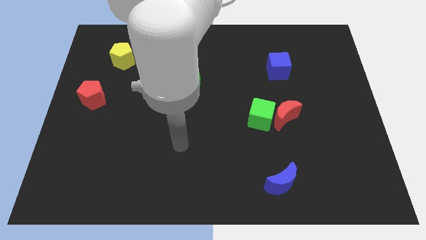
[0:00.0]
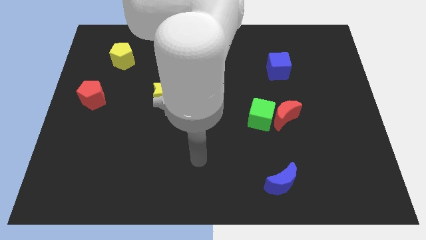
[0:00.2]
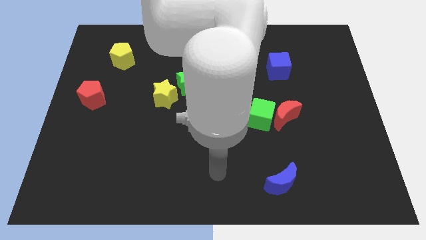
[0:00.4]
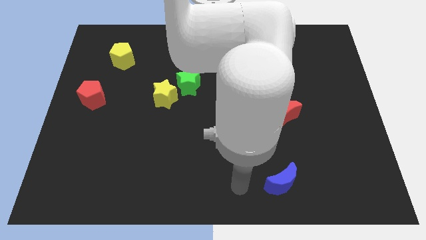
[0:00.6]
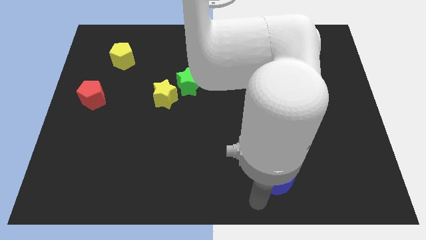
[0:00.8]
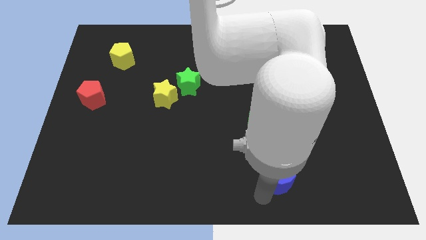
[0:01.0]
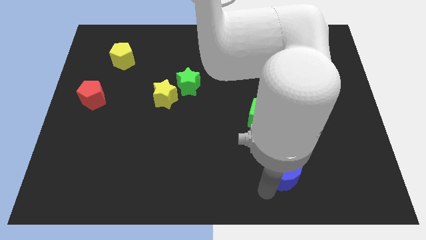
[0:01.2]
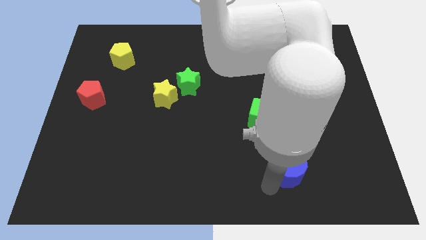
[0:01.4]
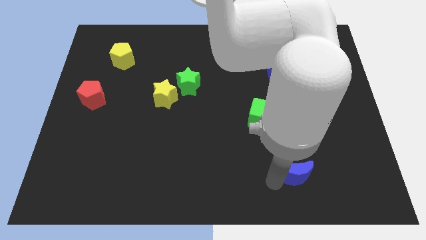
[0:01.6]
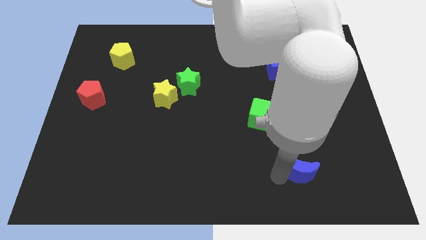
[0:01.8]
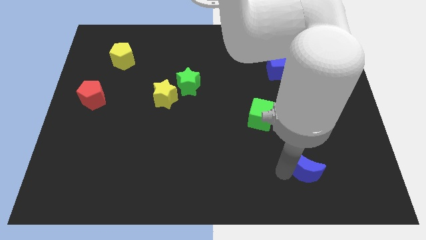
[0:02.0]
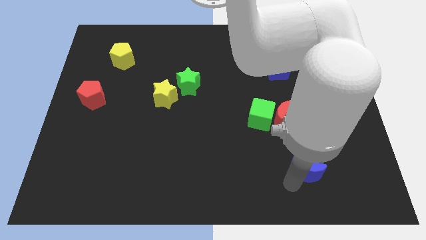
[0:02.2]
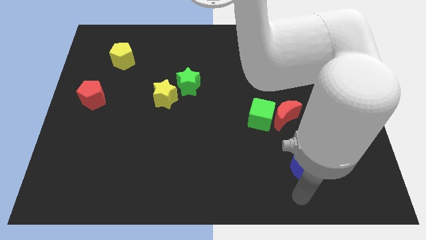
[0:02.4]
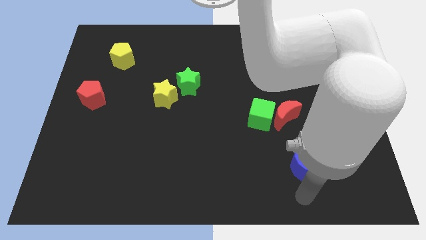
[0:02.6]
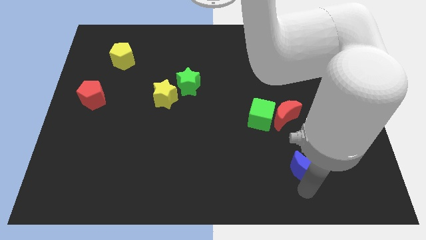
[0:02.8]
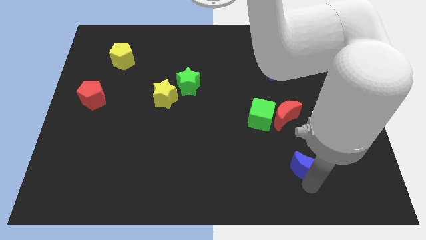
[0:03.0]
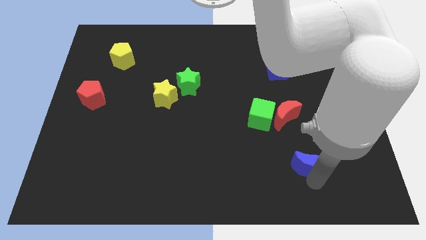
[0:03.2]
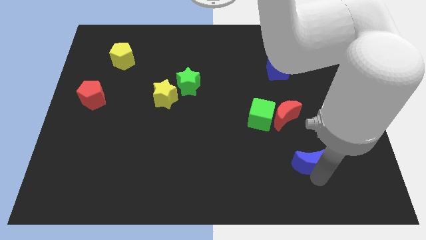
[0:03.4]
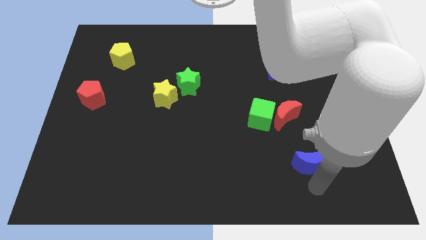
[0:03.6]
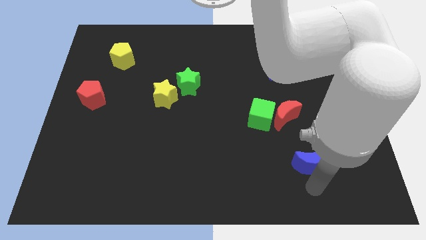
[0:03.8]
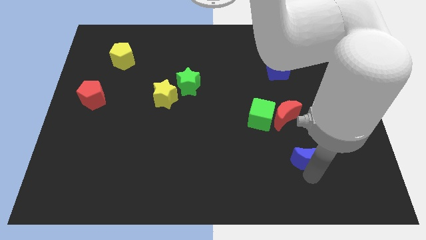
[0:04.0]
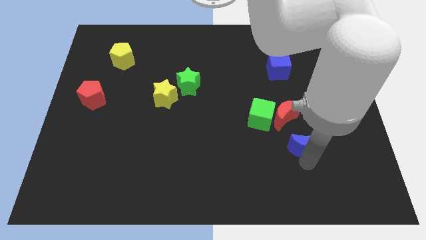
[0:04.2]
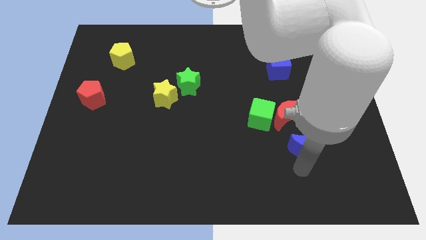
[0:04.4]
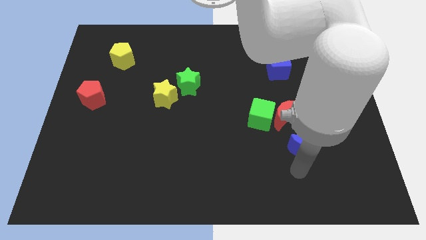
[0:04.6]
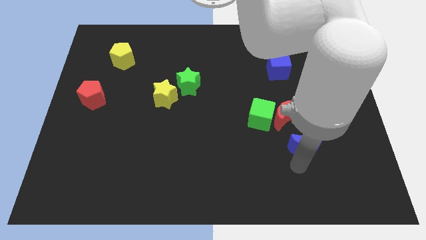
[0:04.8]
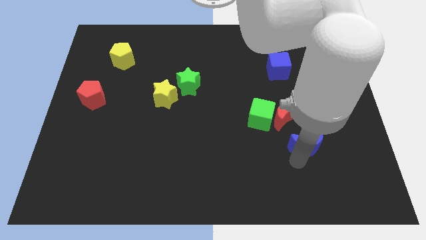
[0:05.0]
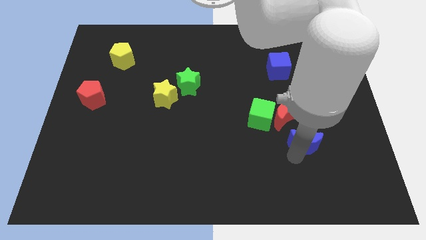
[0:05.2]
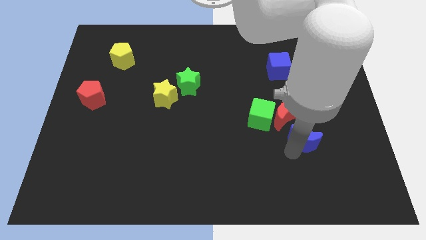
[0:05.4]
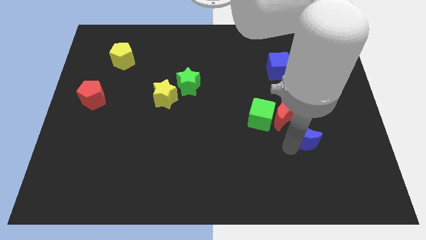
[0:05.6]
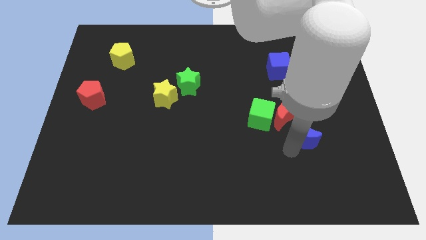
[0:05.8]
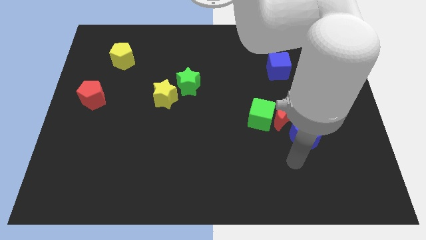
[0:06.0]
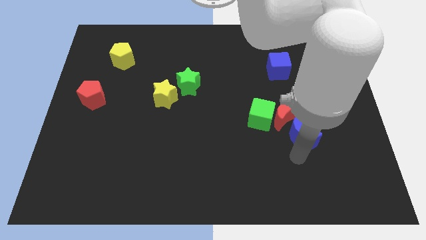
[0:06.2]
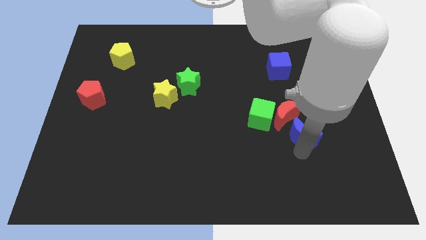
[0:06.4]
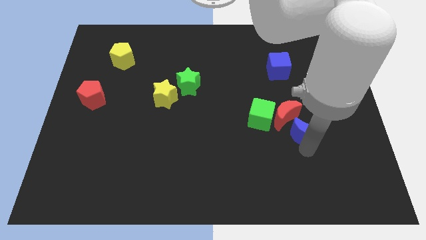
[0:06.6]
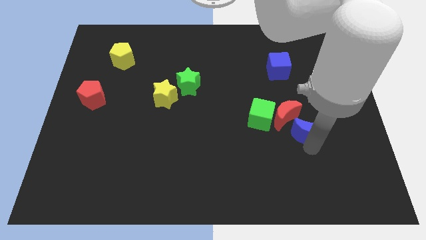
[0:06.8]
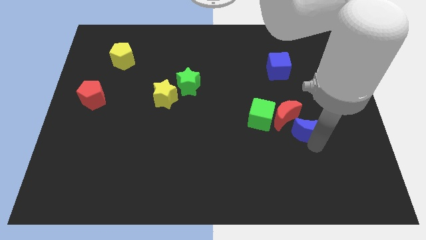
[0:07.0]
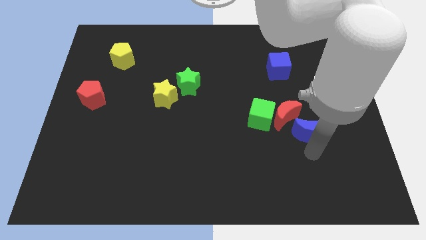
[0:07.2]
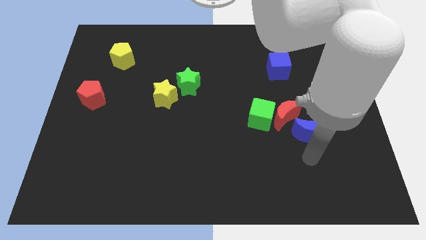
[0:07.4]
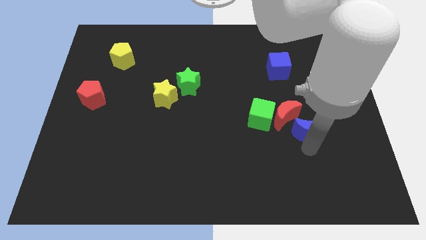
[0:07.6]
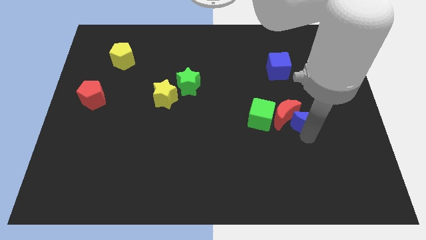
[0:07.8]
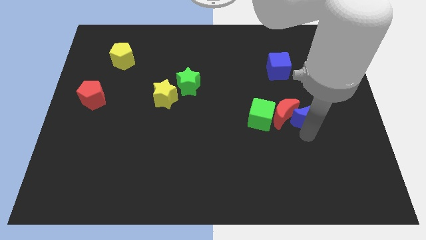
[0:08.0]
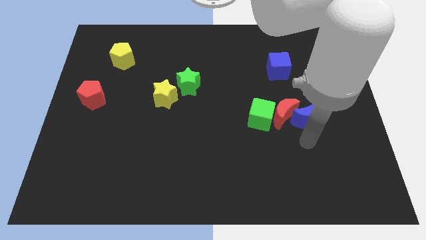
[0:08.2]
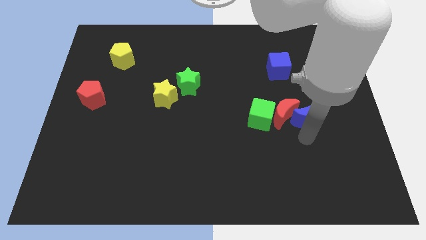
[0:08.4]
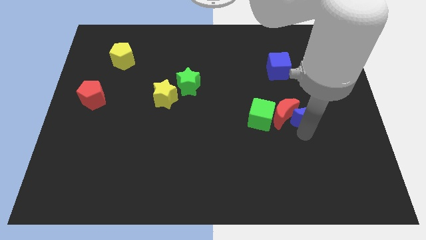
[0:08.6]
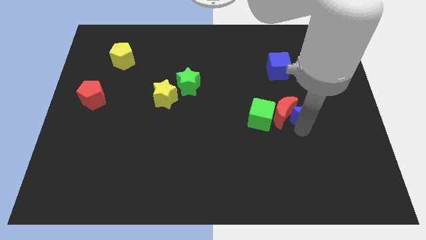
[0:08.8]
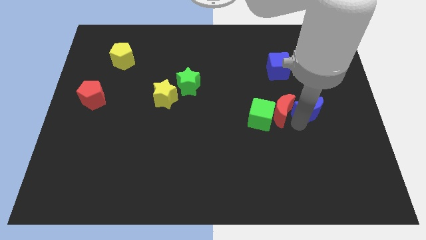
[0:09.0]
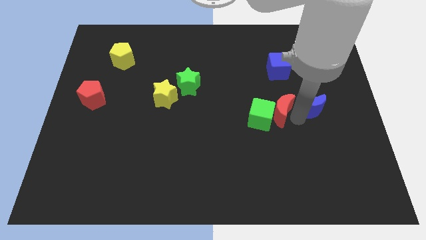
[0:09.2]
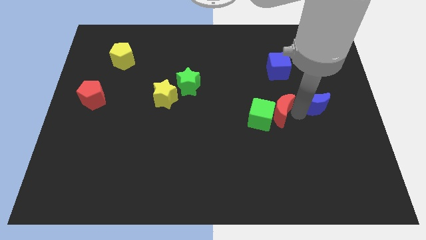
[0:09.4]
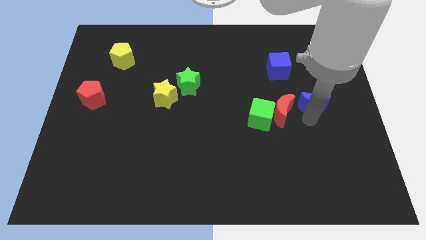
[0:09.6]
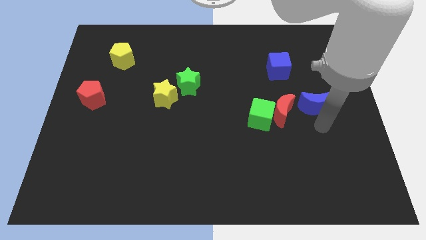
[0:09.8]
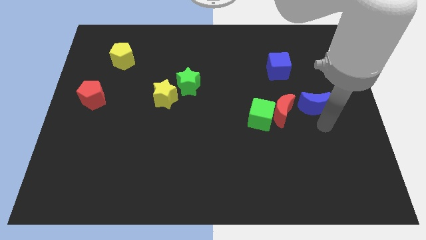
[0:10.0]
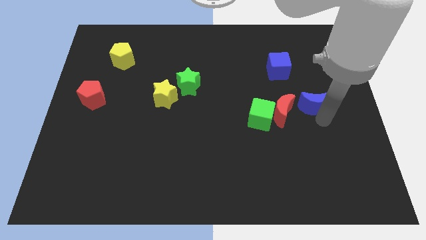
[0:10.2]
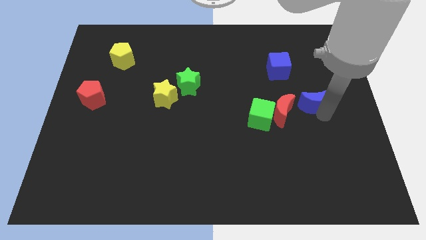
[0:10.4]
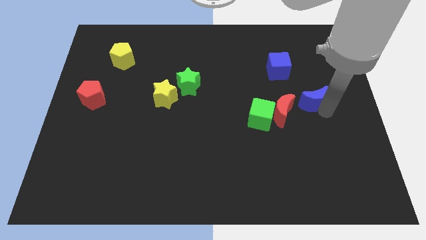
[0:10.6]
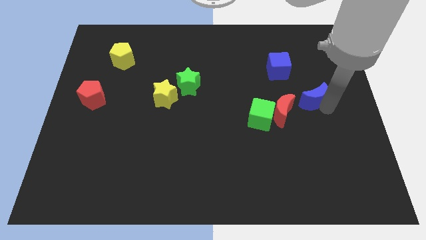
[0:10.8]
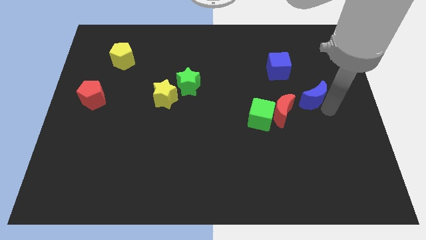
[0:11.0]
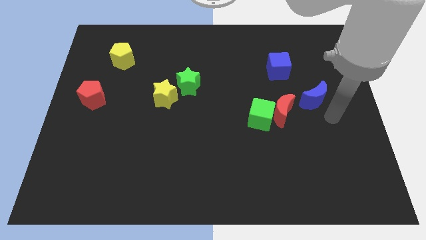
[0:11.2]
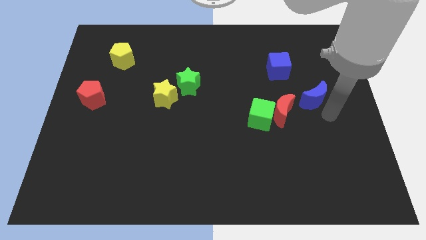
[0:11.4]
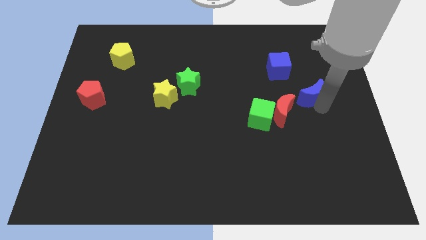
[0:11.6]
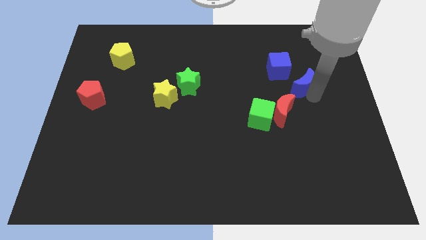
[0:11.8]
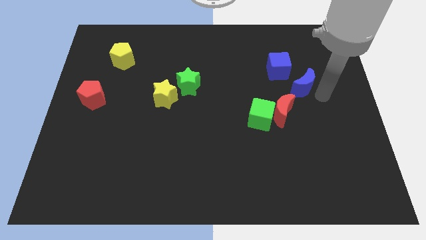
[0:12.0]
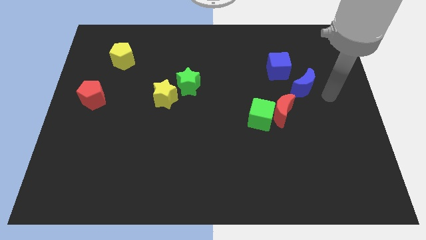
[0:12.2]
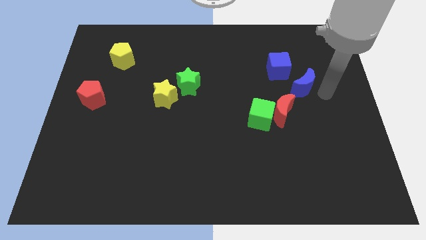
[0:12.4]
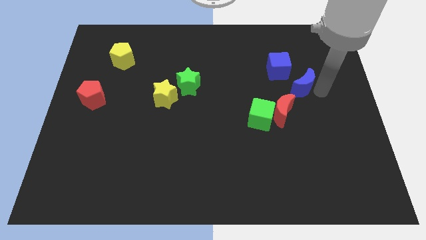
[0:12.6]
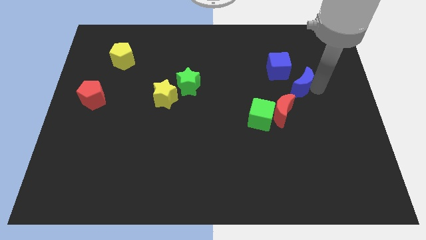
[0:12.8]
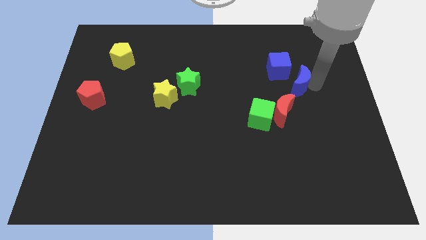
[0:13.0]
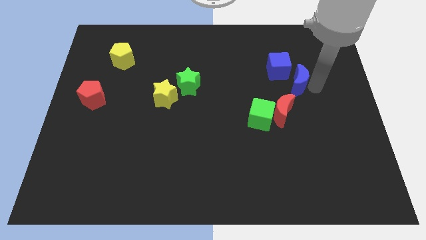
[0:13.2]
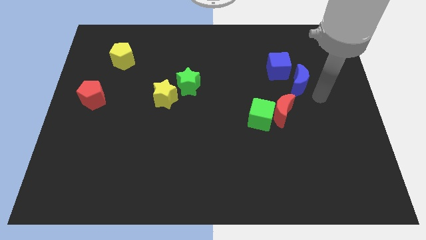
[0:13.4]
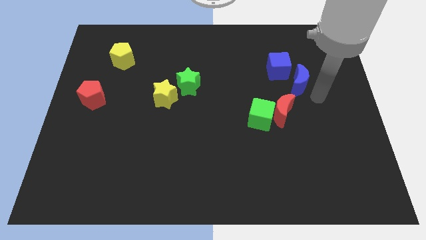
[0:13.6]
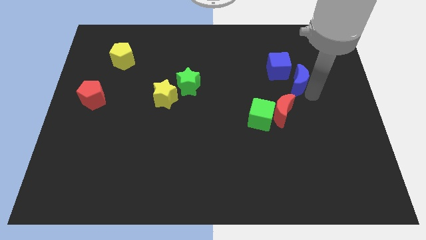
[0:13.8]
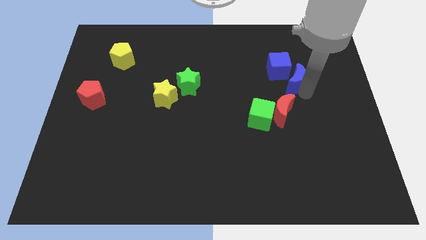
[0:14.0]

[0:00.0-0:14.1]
slide the blue moon close to the blue cube

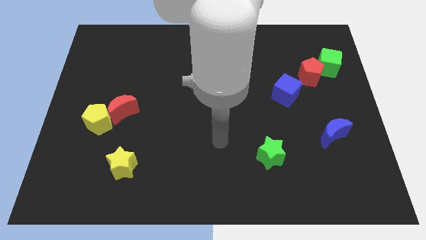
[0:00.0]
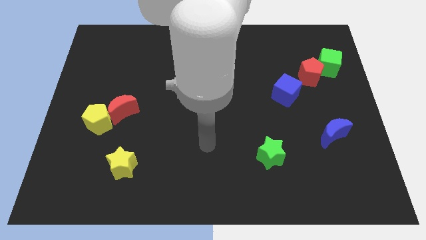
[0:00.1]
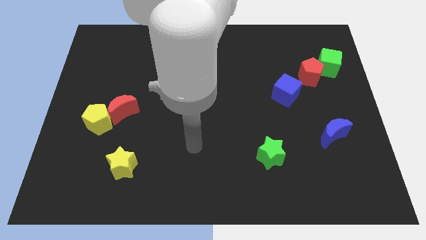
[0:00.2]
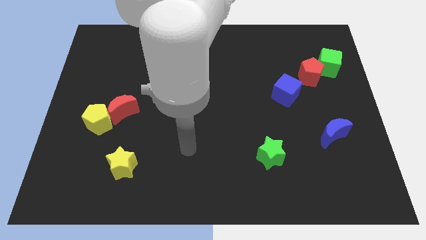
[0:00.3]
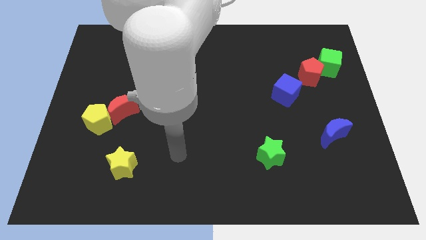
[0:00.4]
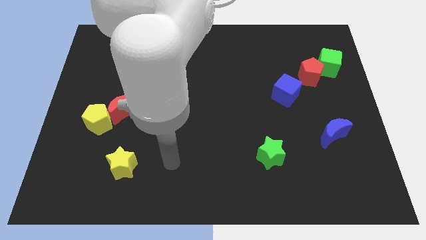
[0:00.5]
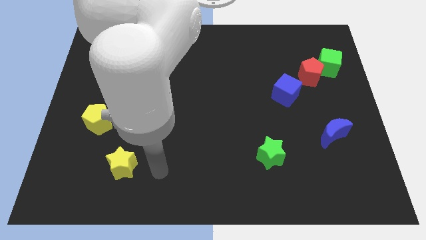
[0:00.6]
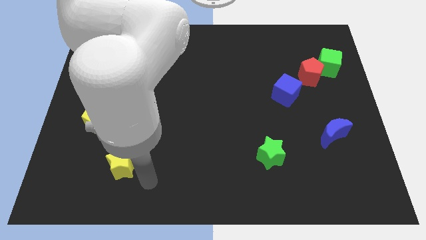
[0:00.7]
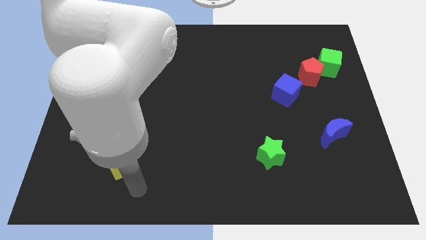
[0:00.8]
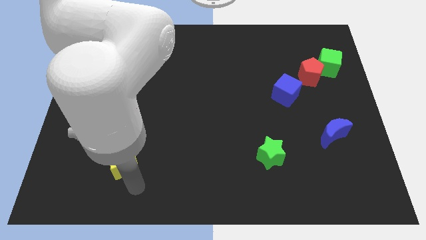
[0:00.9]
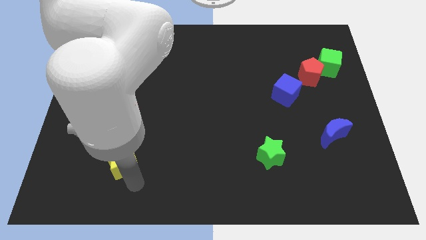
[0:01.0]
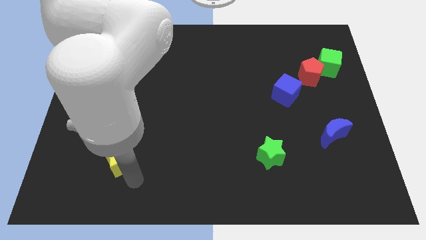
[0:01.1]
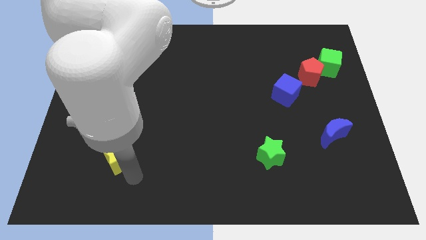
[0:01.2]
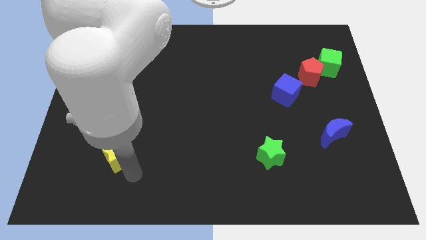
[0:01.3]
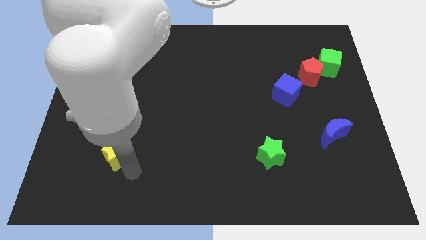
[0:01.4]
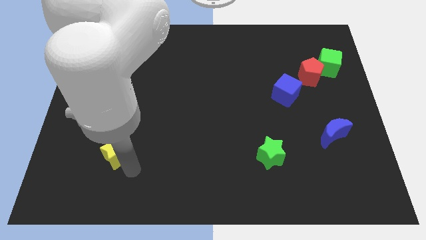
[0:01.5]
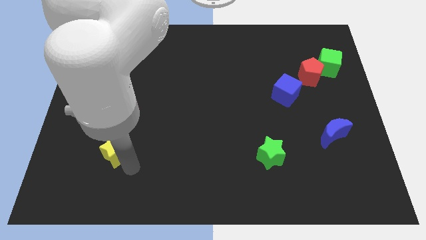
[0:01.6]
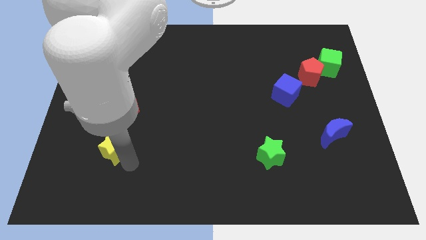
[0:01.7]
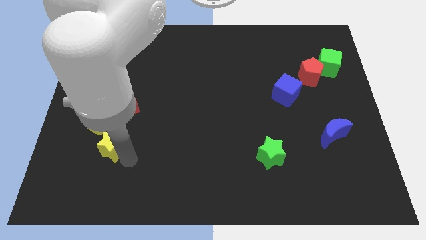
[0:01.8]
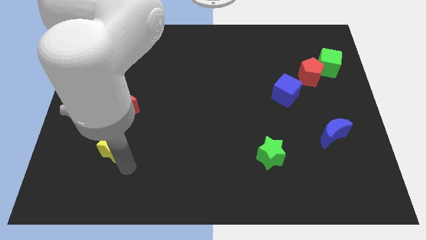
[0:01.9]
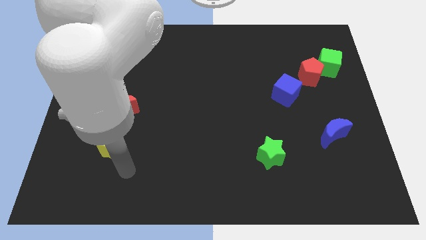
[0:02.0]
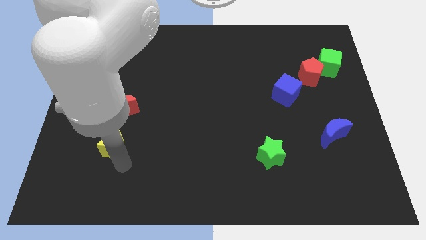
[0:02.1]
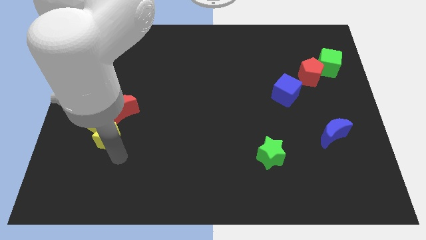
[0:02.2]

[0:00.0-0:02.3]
move the yellow star next to the yellow pentagon
